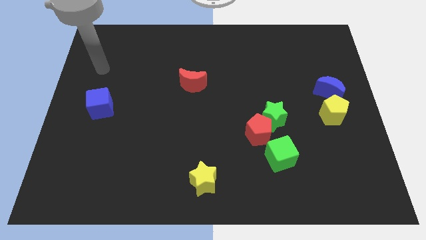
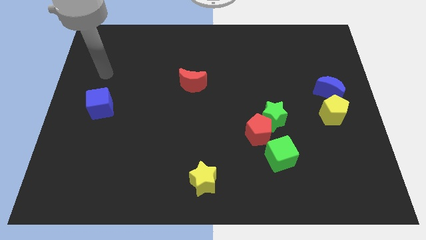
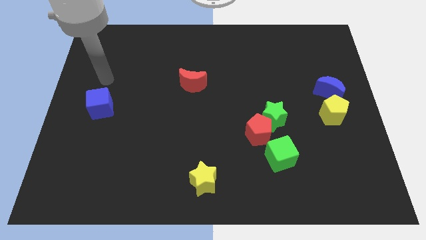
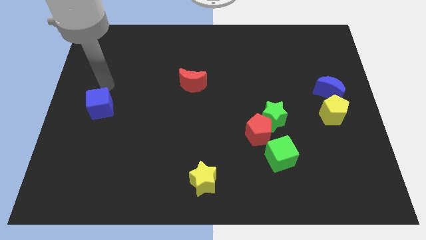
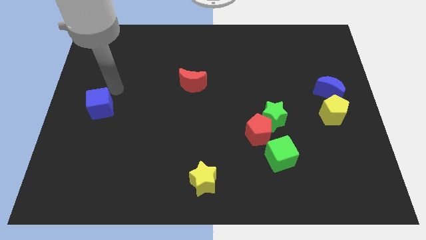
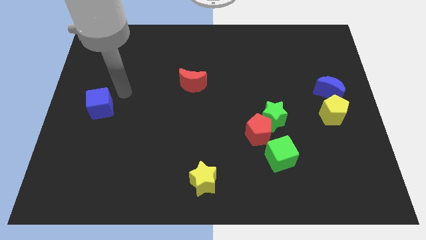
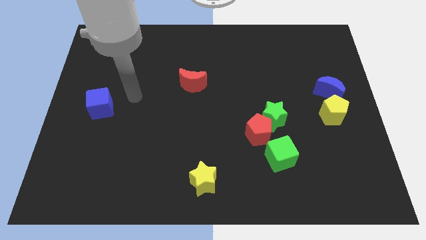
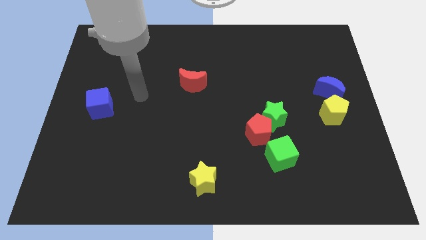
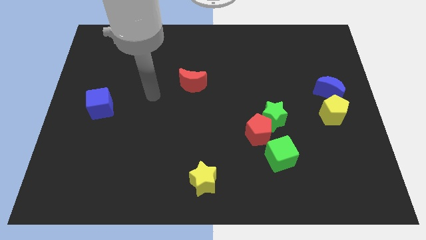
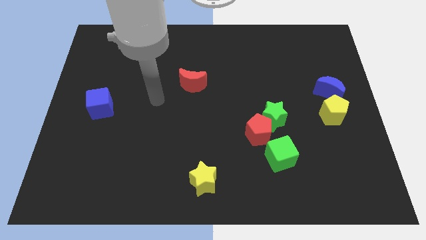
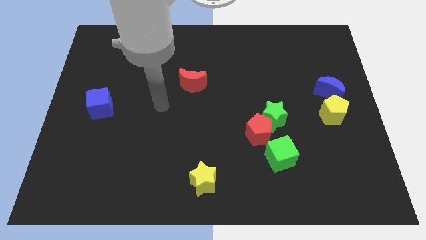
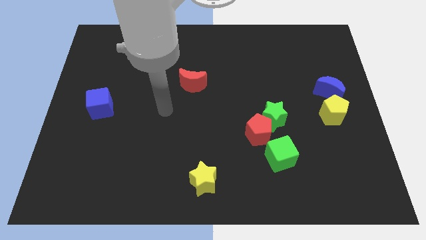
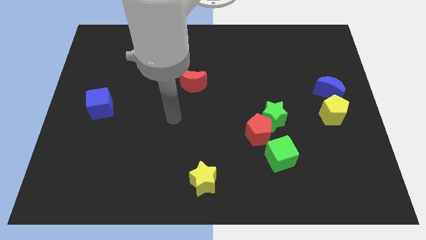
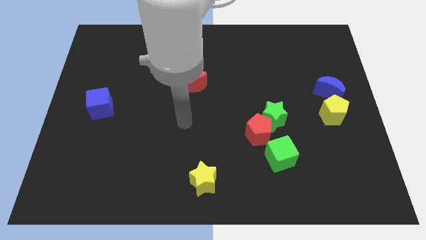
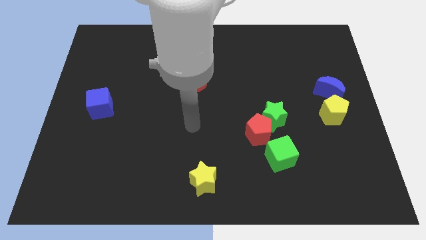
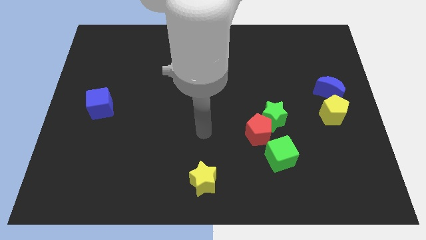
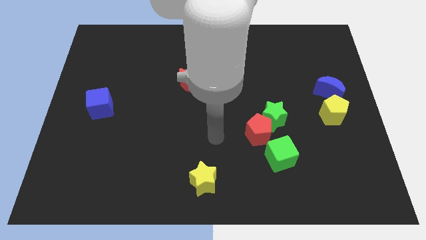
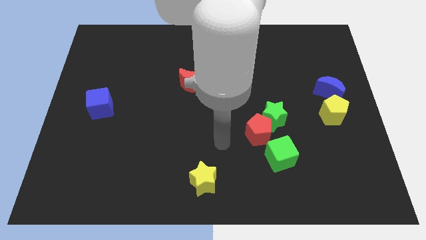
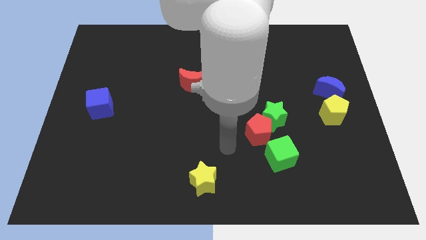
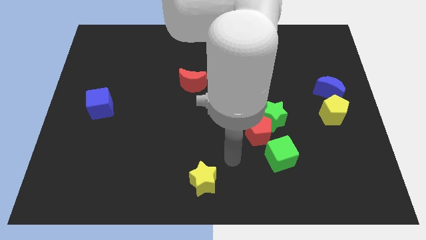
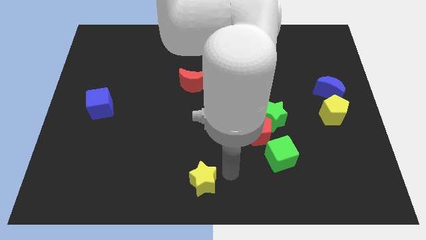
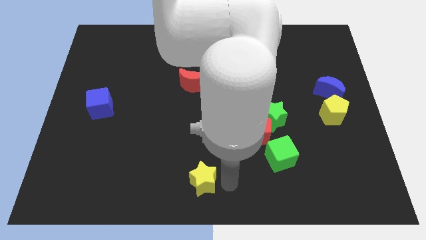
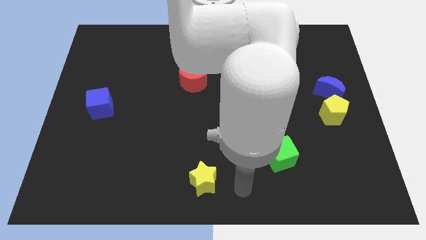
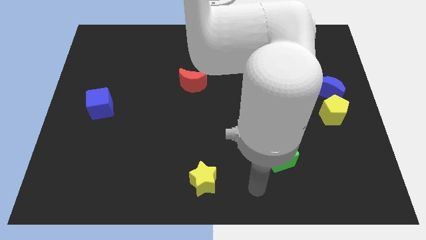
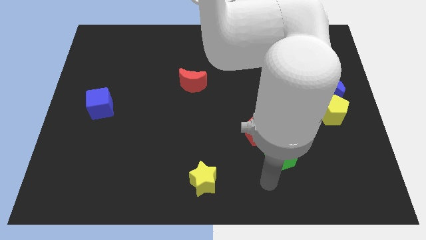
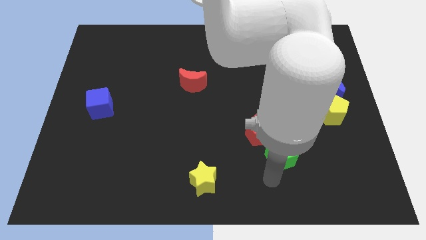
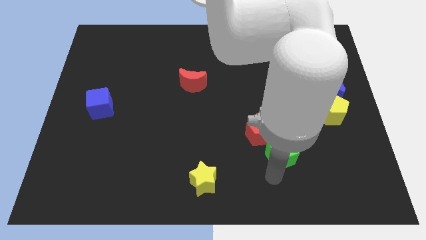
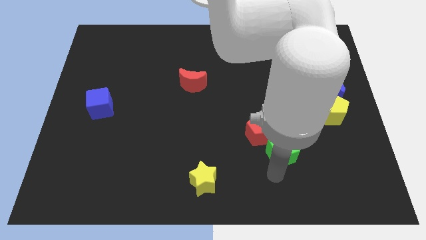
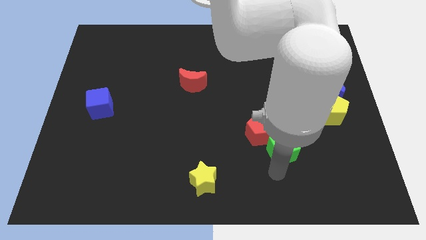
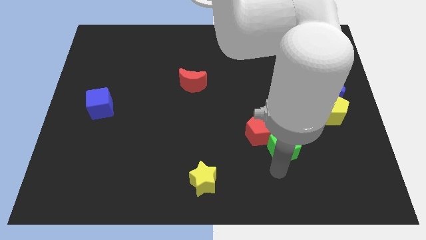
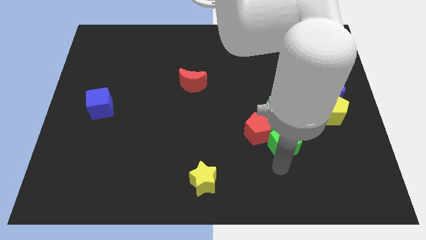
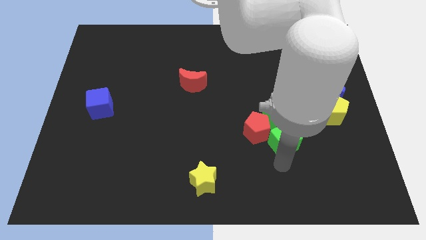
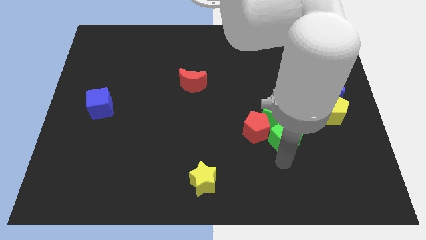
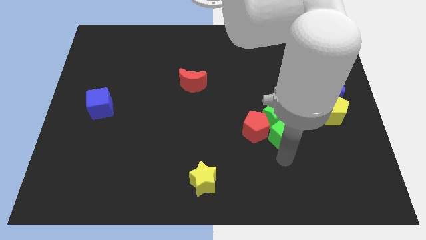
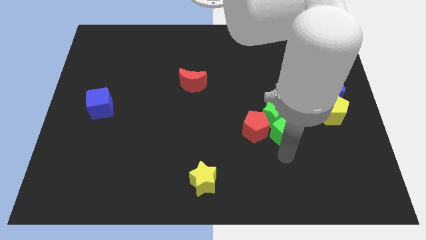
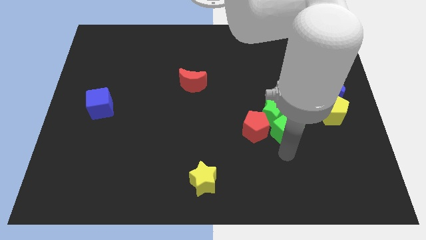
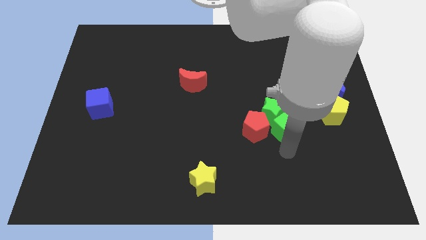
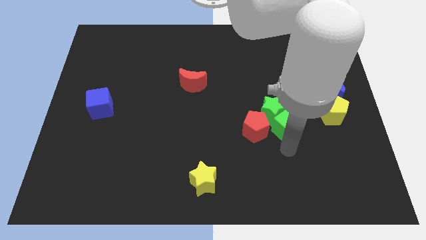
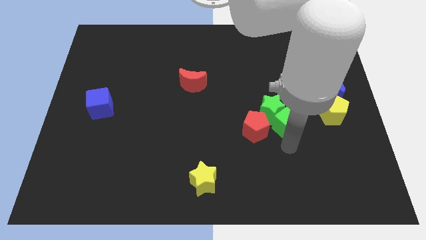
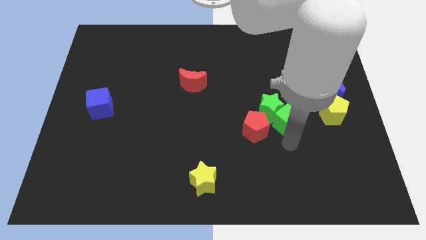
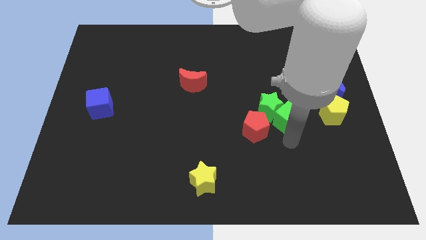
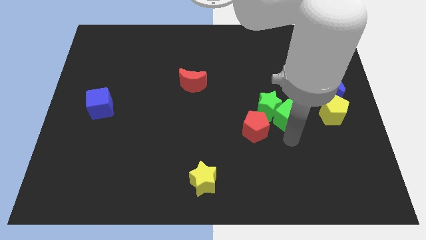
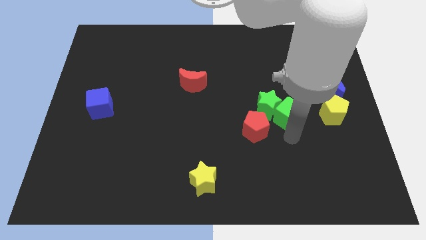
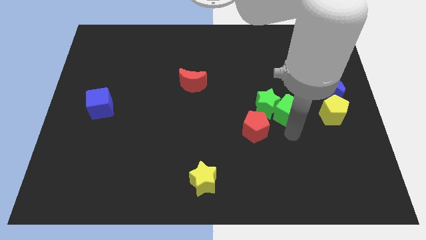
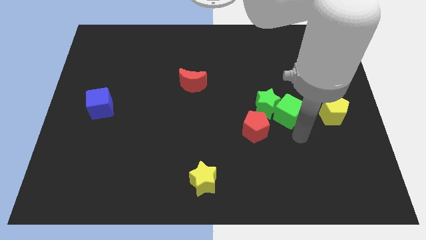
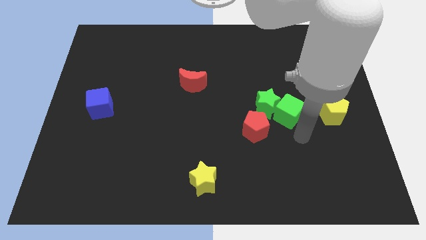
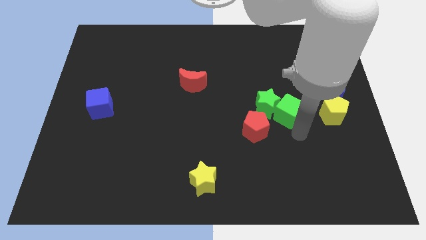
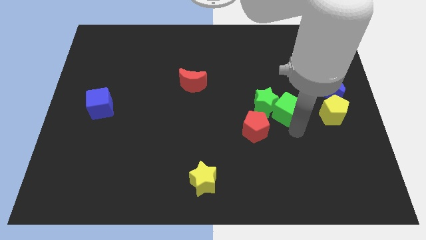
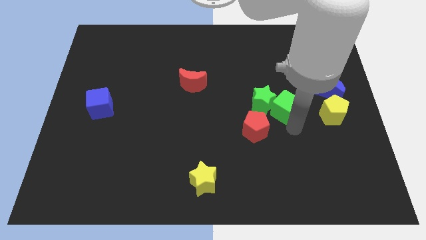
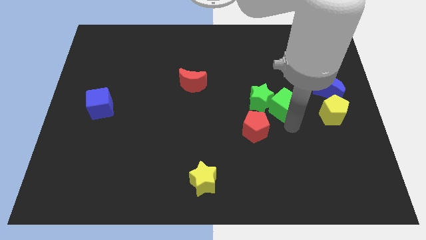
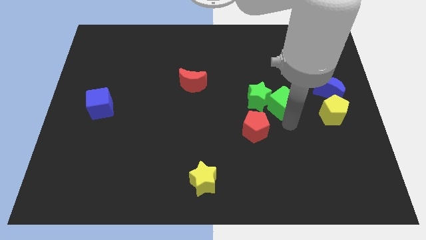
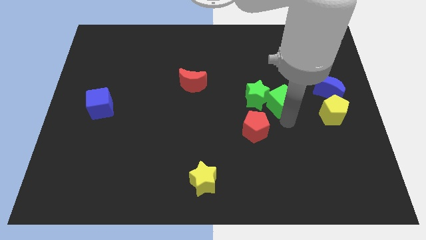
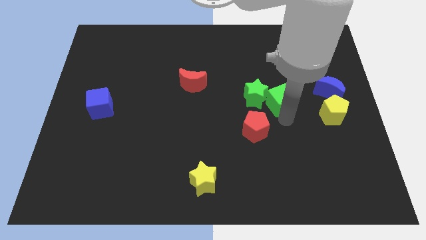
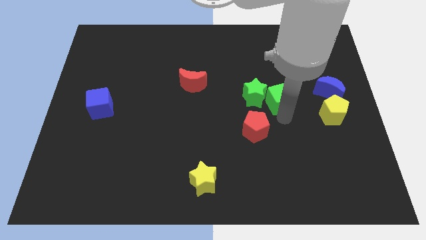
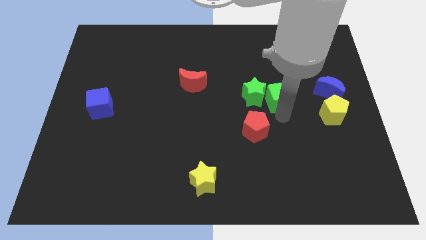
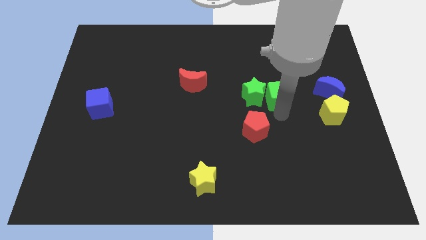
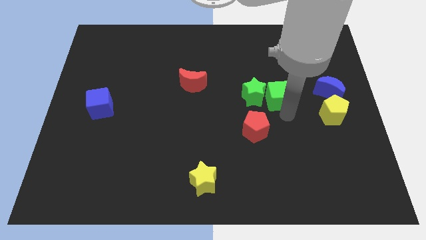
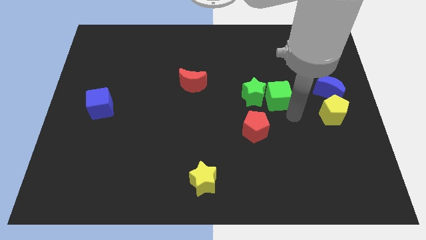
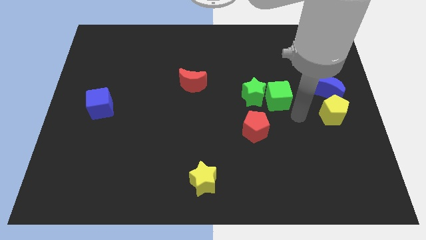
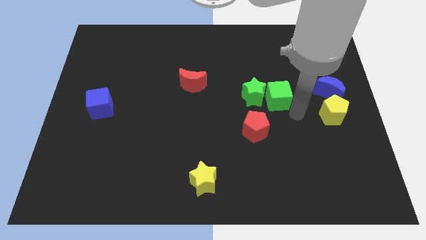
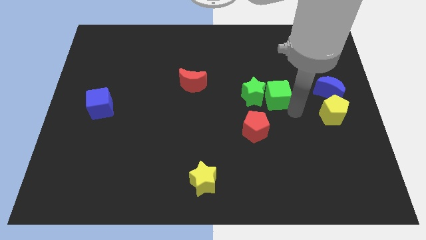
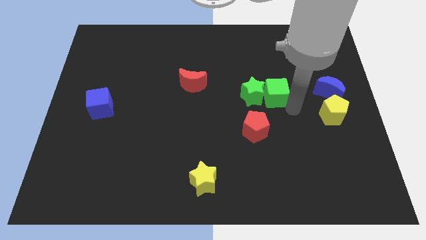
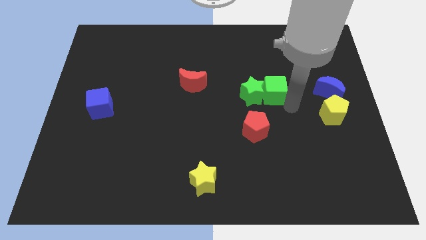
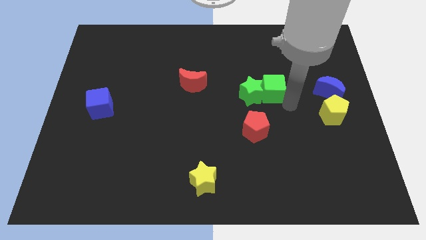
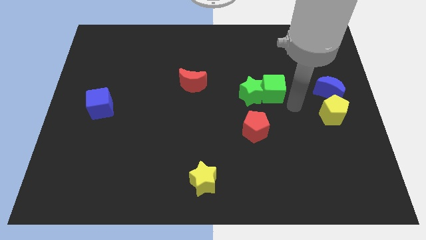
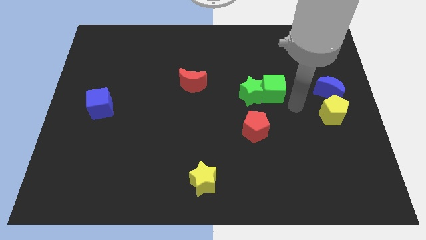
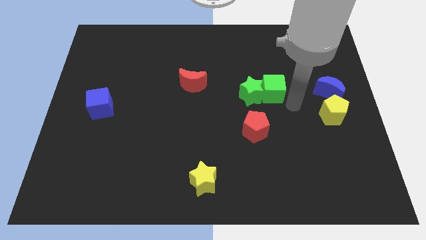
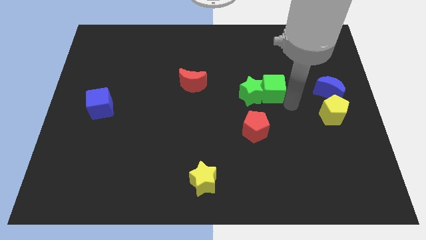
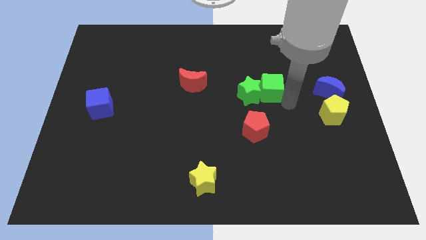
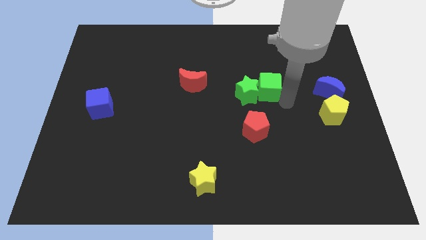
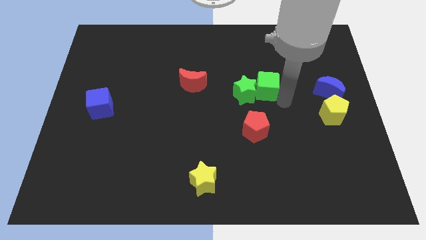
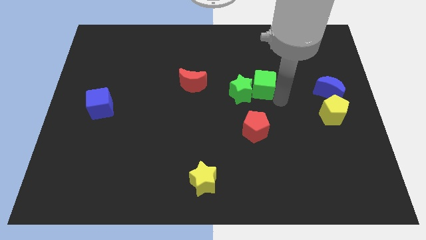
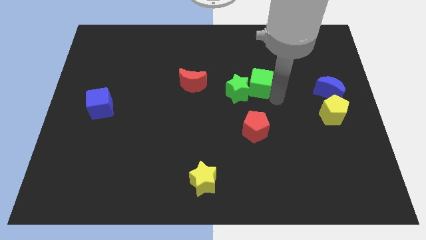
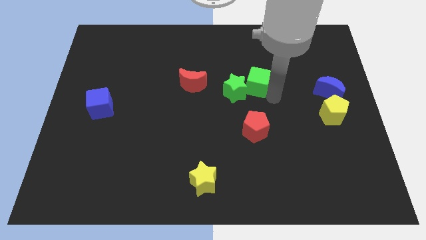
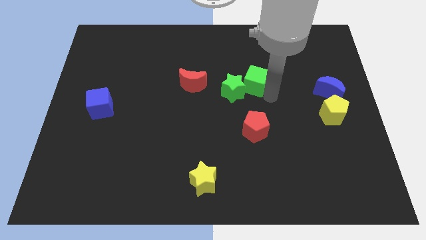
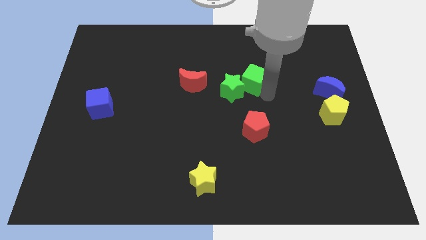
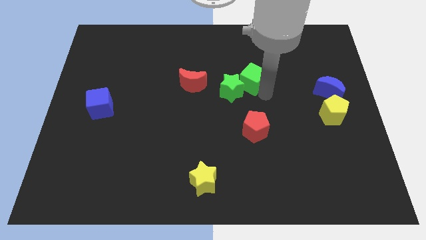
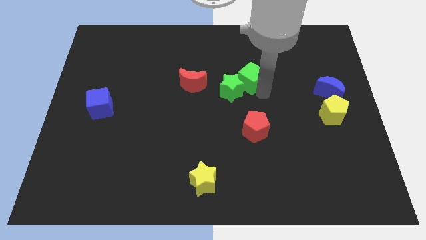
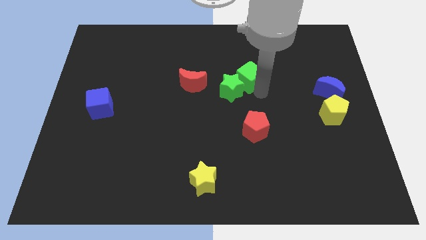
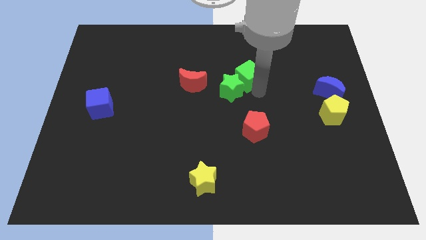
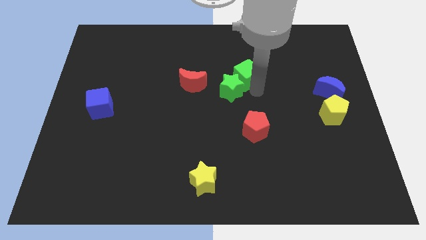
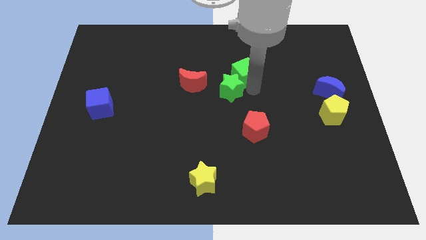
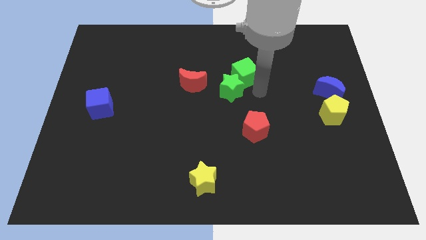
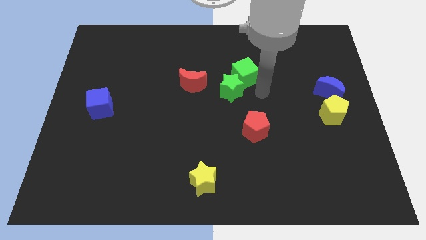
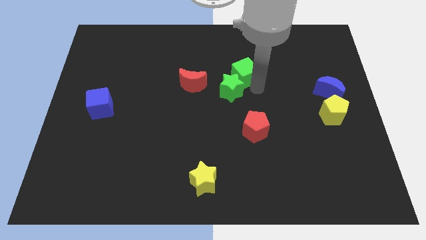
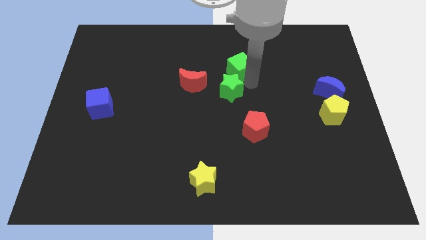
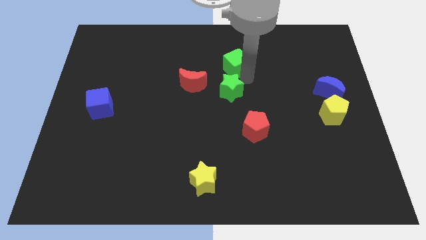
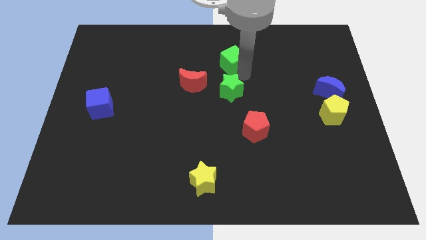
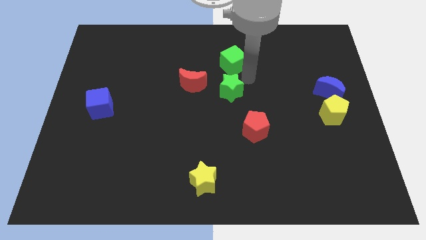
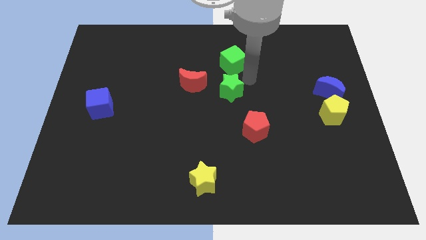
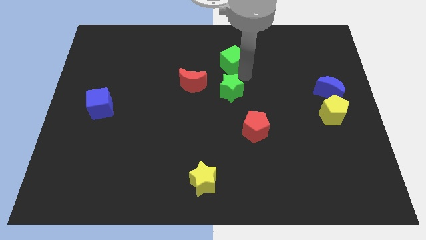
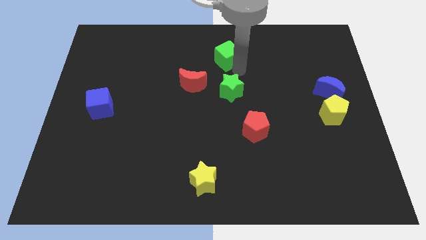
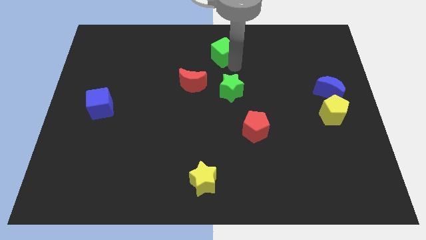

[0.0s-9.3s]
push the green cube to the top side
